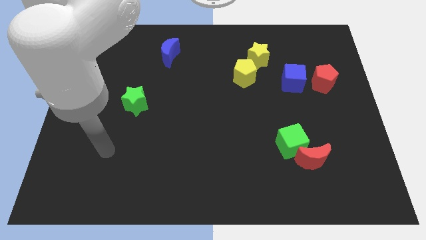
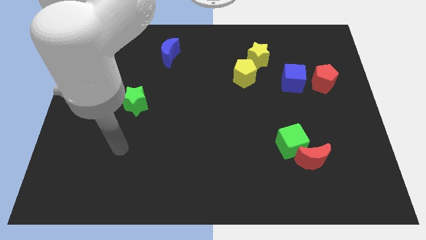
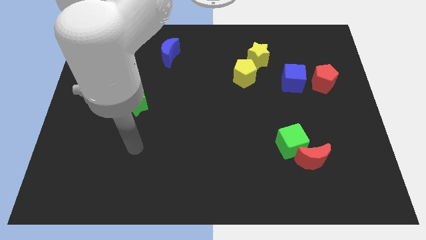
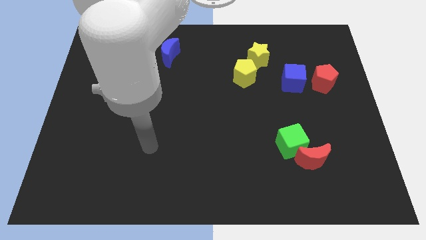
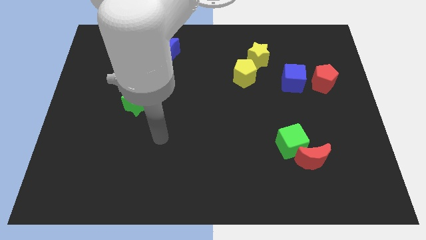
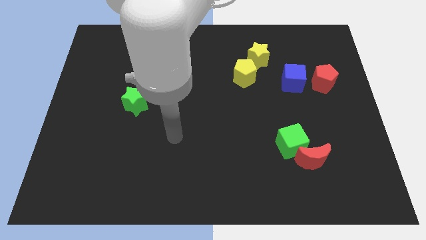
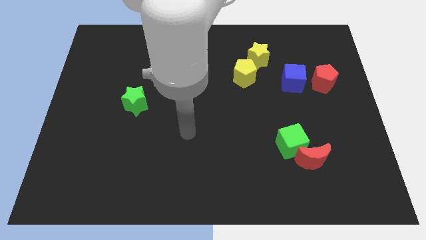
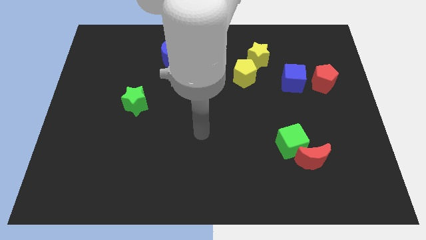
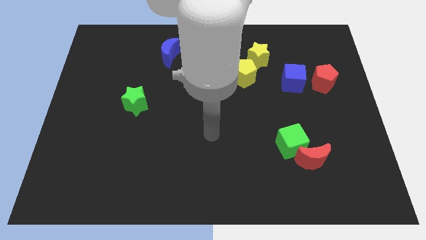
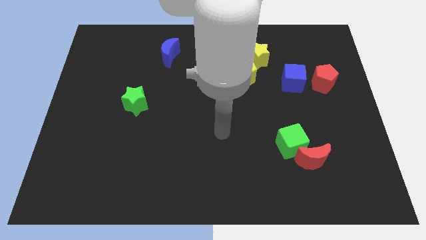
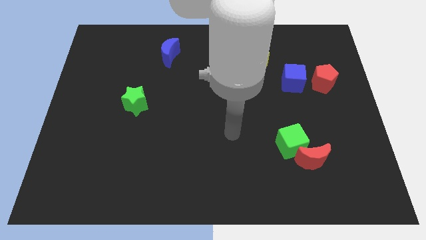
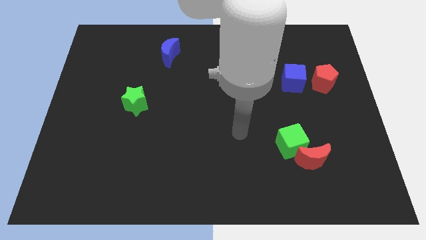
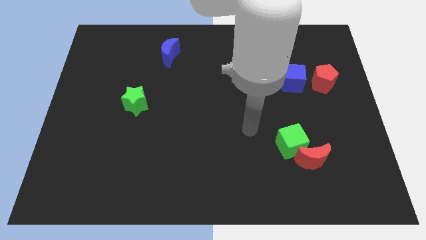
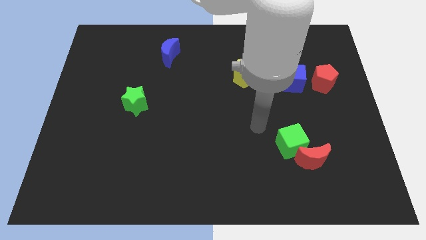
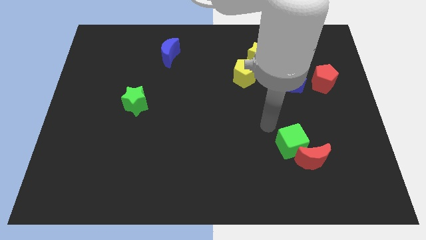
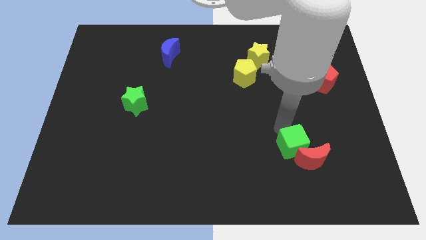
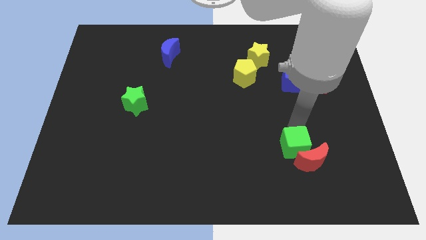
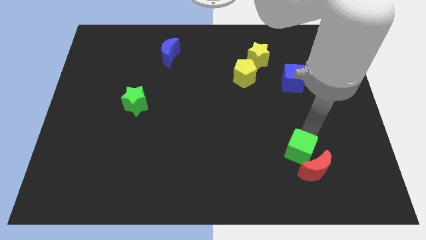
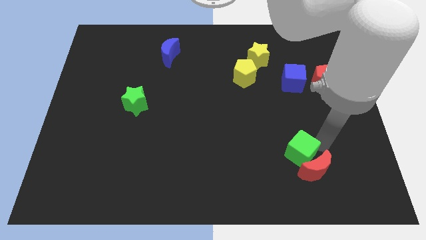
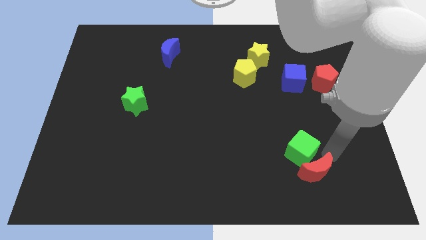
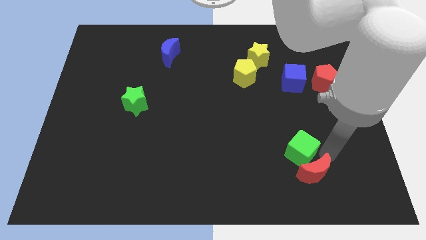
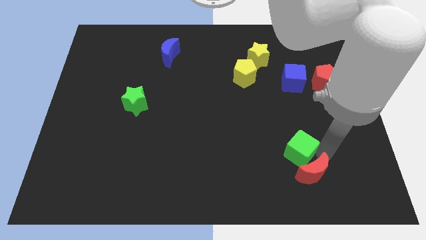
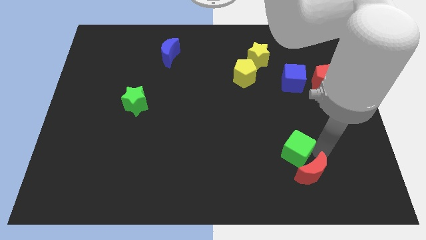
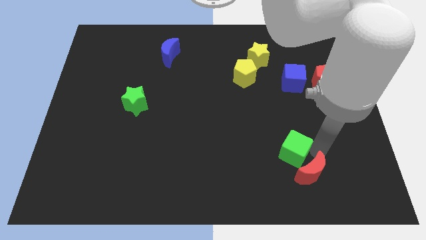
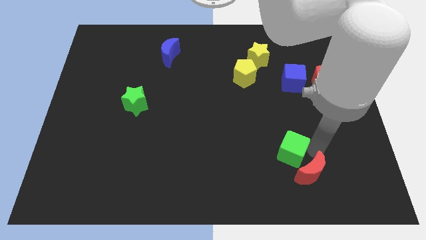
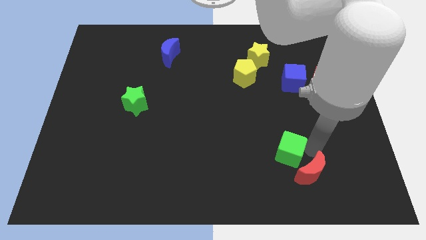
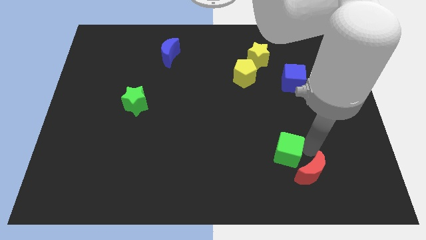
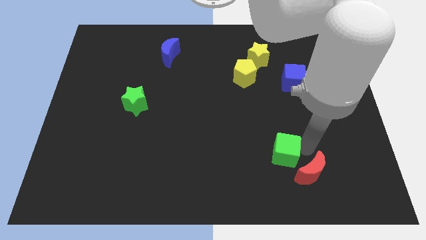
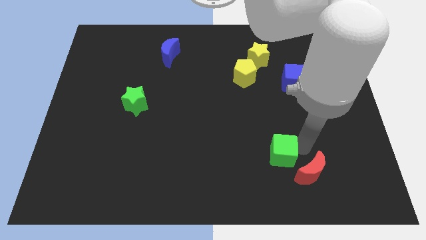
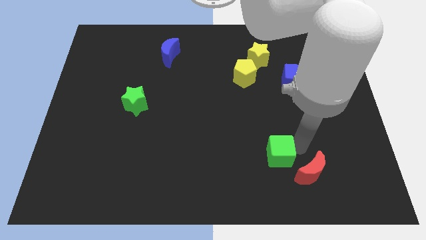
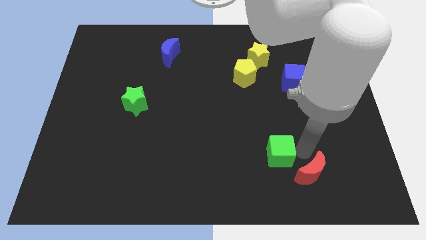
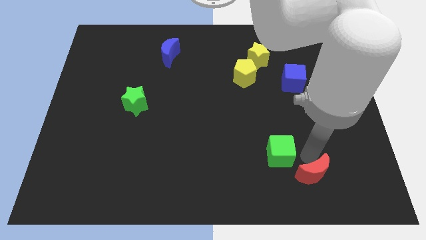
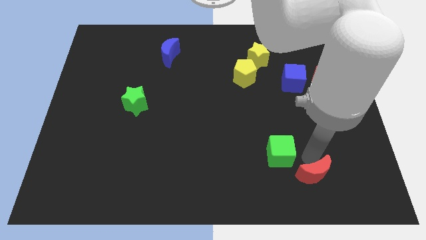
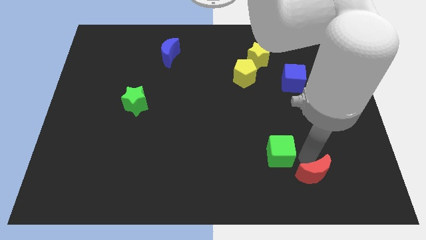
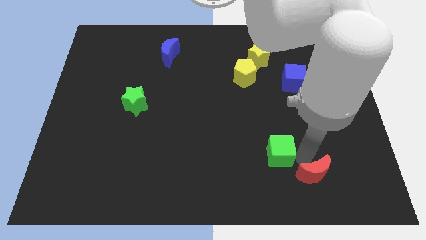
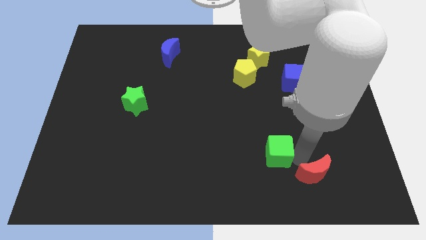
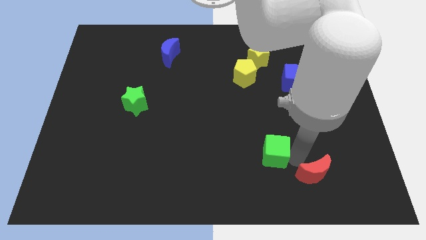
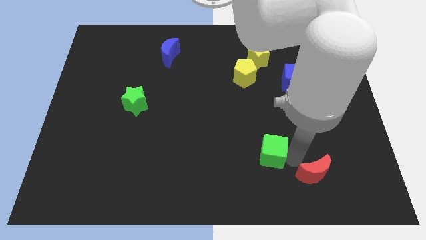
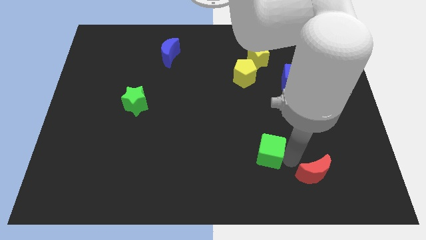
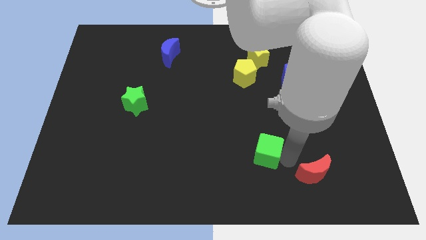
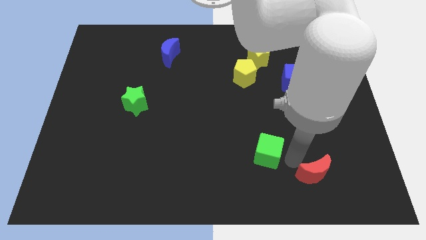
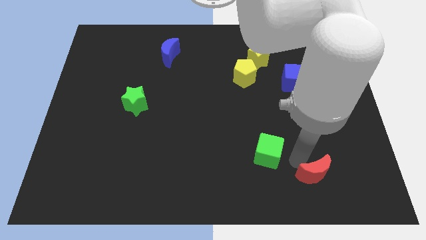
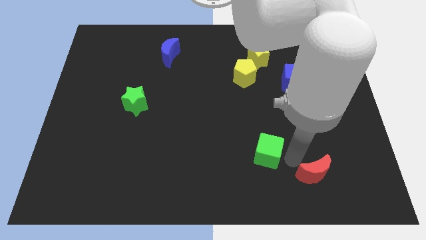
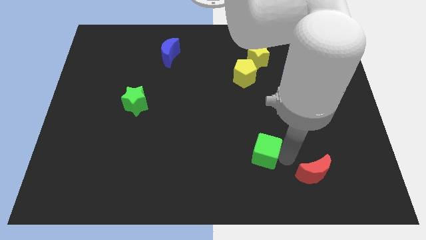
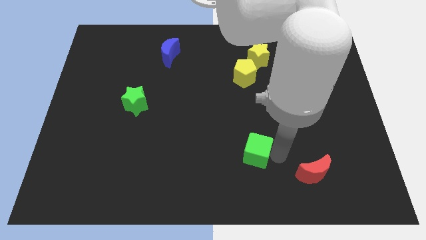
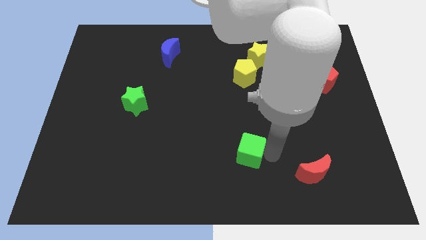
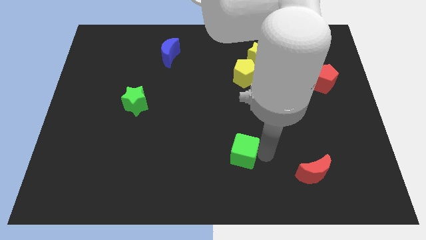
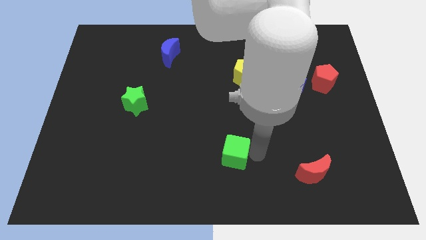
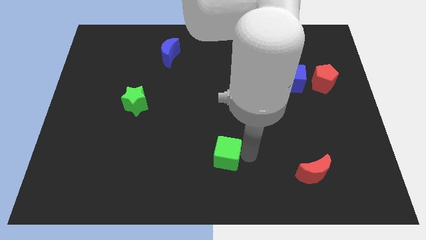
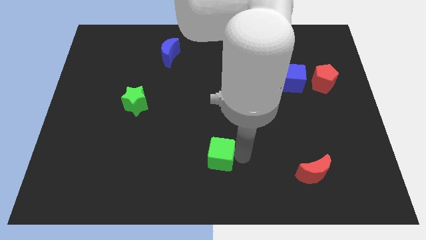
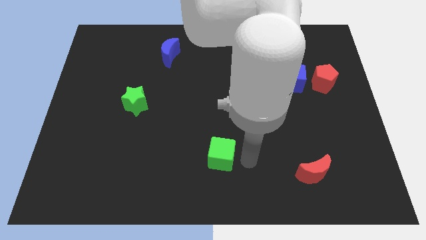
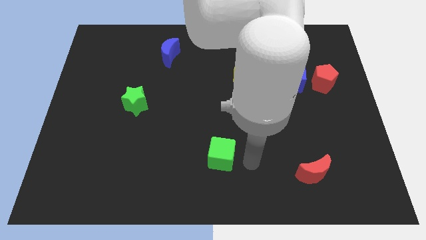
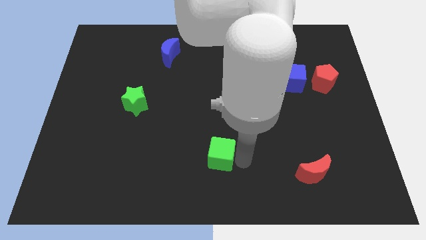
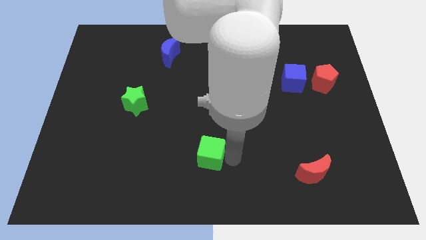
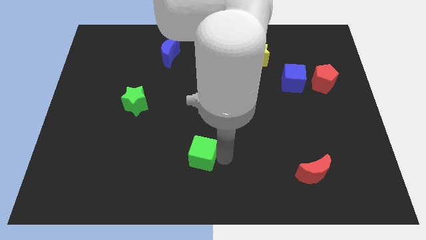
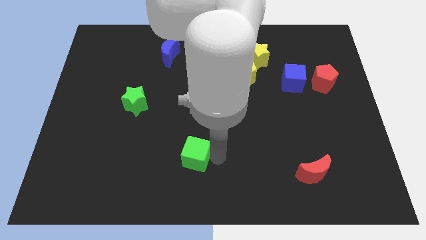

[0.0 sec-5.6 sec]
move the green cube to the left

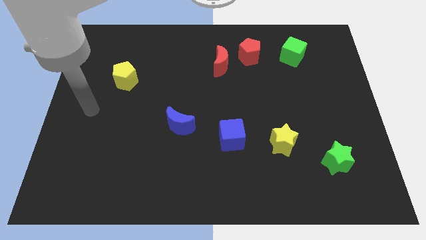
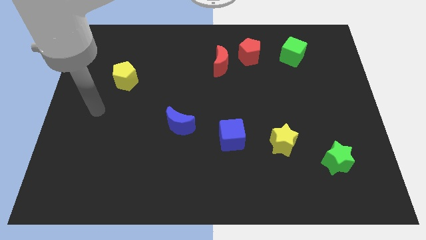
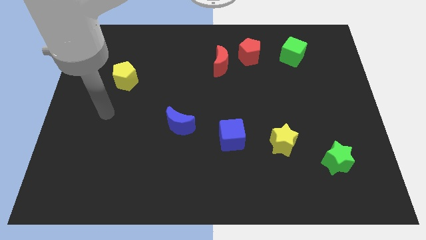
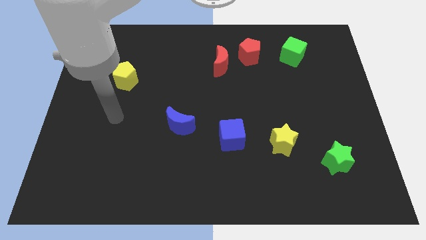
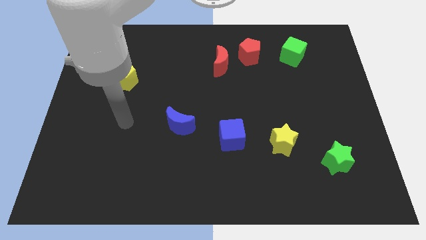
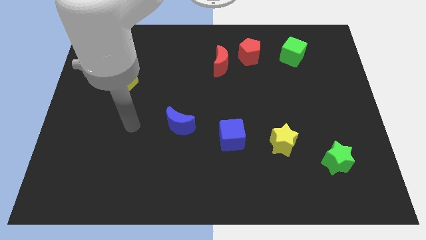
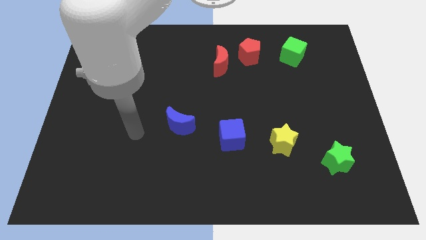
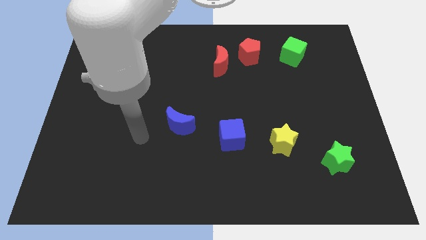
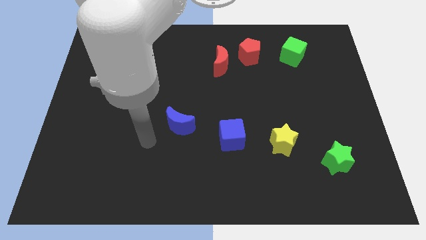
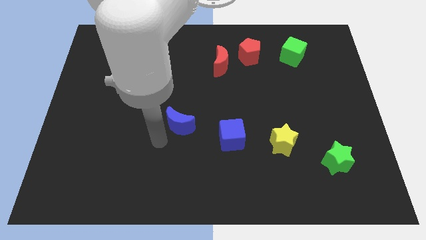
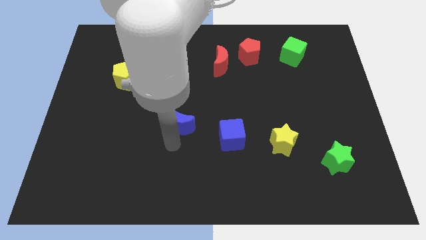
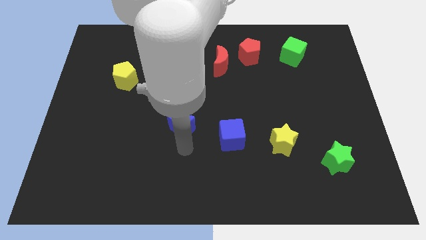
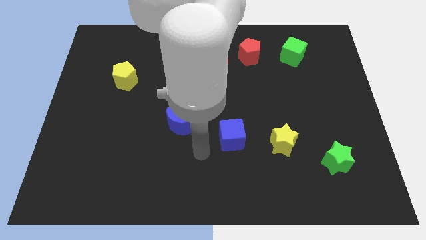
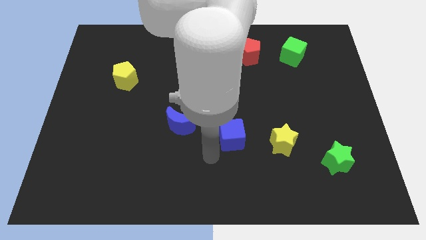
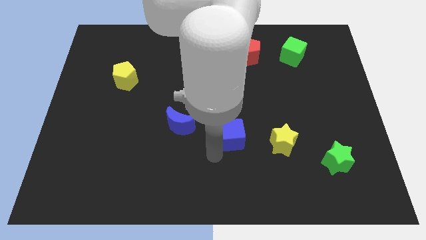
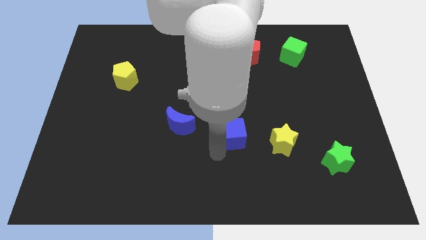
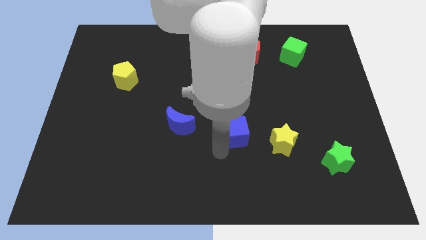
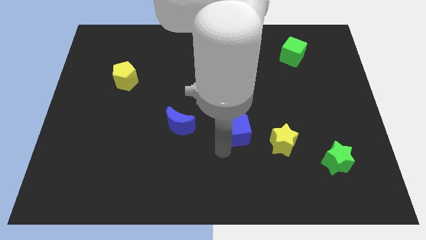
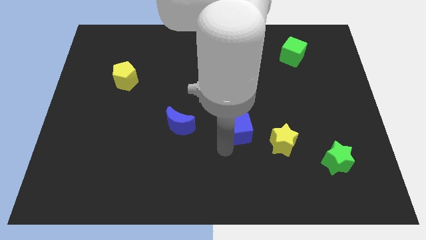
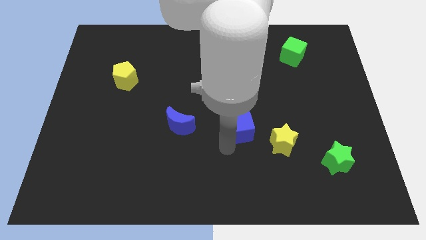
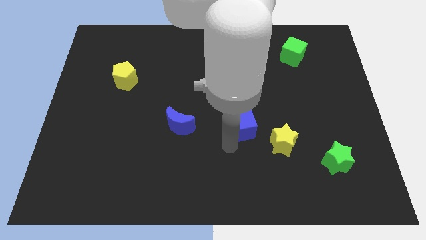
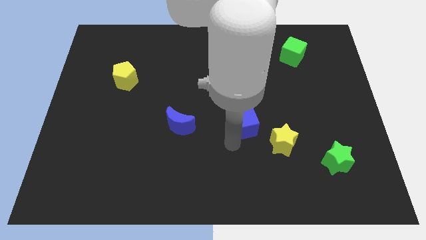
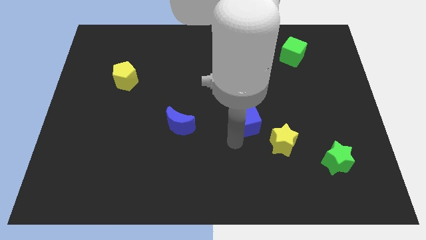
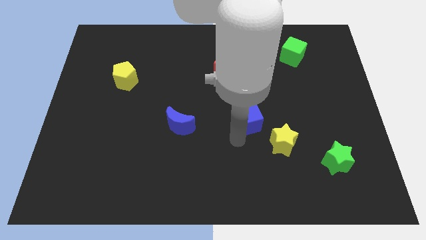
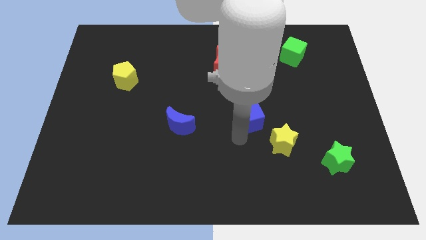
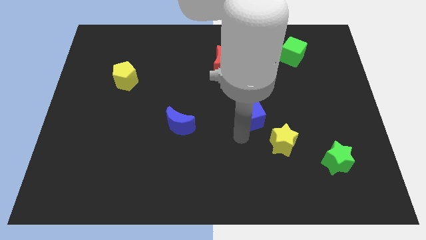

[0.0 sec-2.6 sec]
move the blue cube up and then to the right a little bit

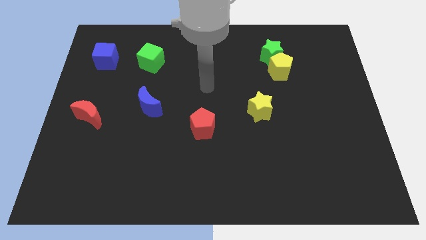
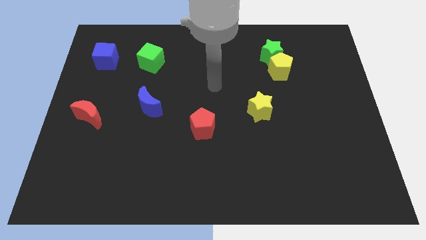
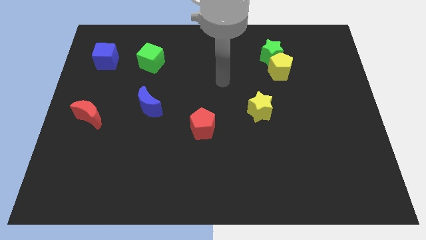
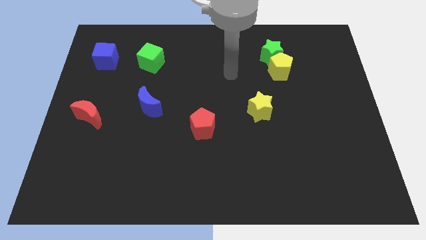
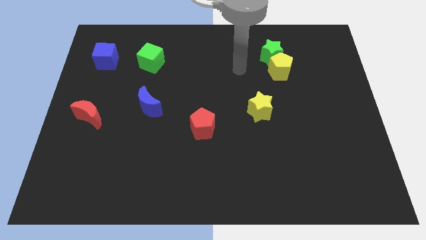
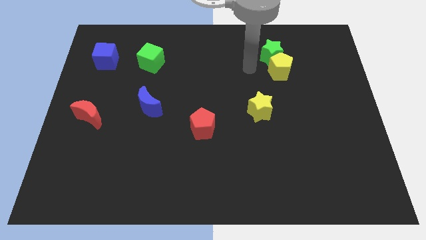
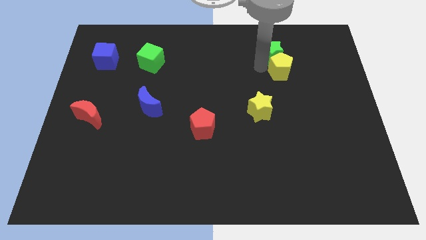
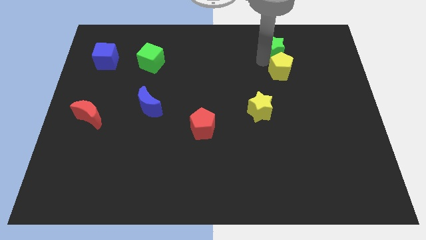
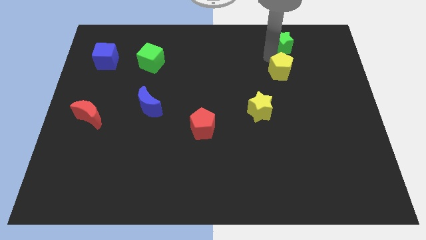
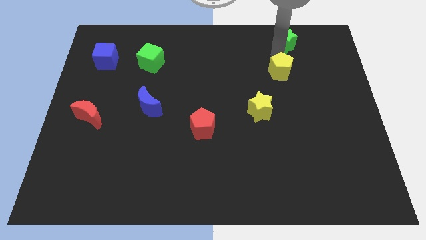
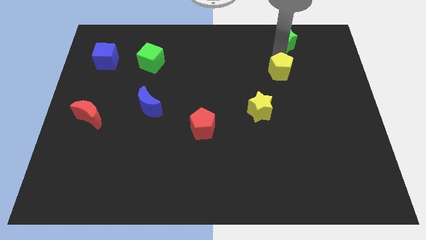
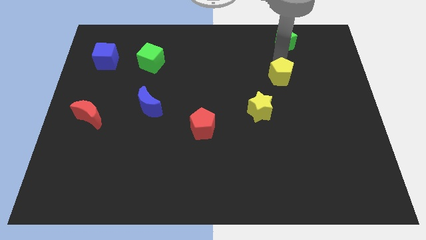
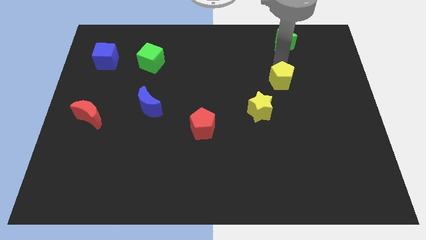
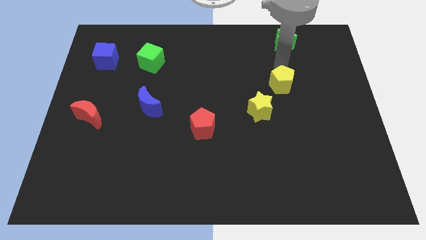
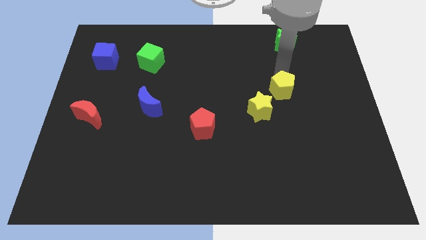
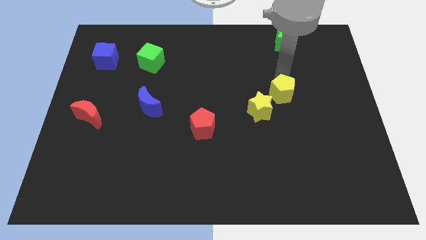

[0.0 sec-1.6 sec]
slightly push the yellow pentagon downwards
